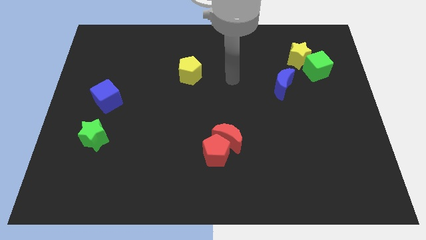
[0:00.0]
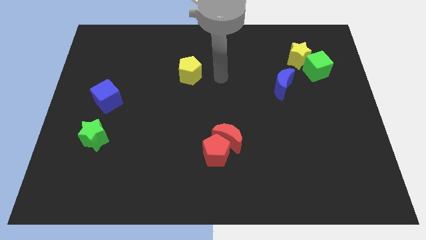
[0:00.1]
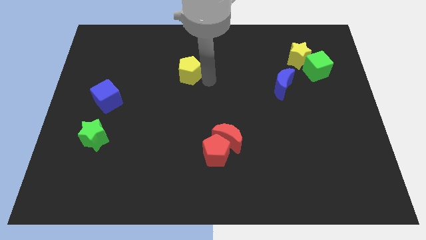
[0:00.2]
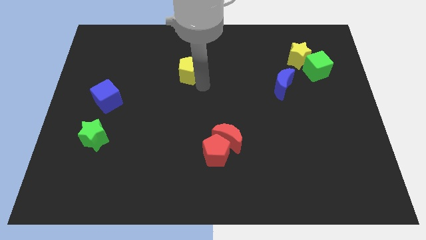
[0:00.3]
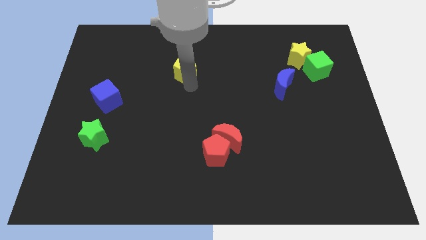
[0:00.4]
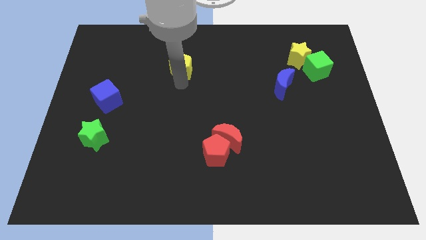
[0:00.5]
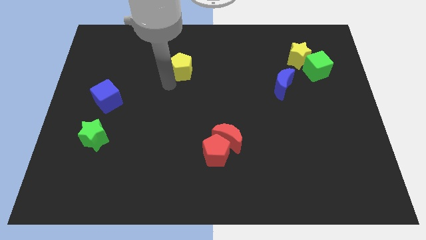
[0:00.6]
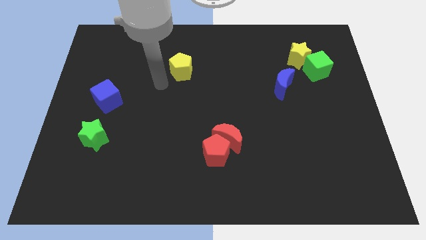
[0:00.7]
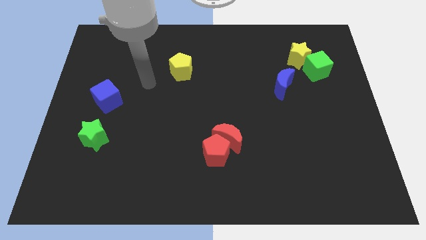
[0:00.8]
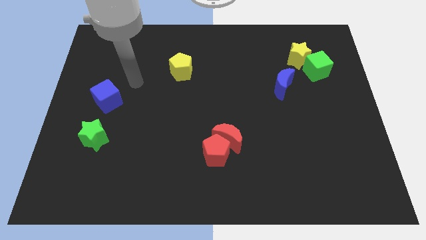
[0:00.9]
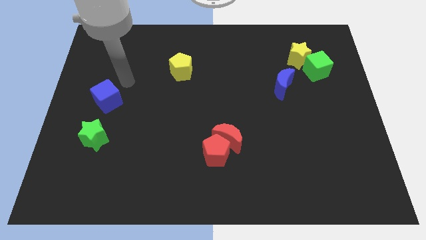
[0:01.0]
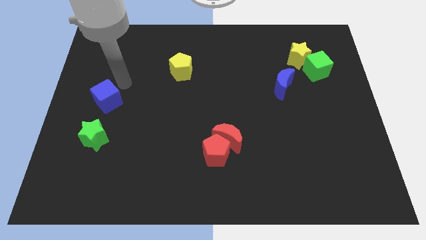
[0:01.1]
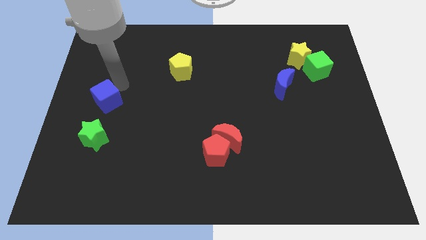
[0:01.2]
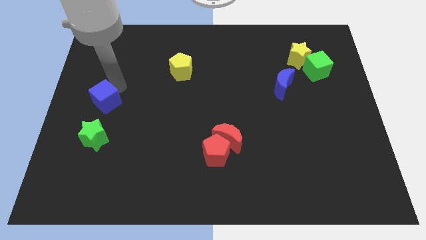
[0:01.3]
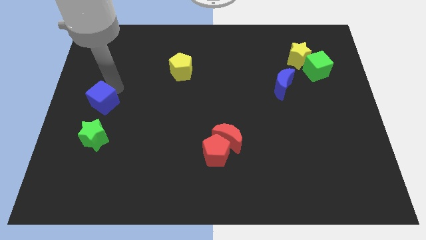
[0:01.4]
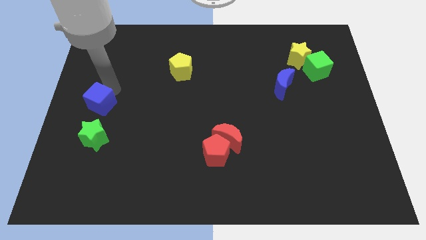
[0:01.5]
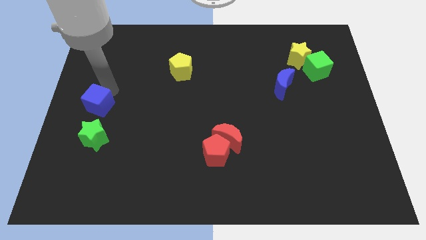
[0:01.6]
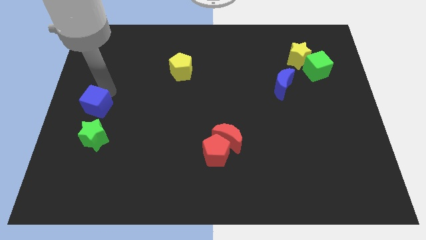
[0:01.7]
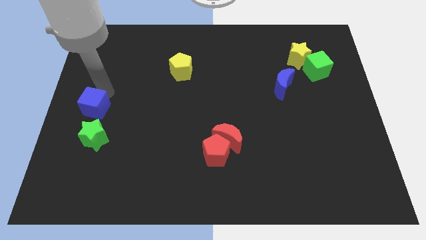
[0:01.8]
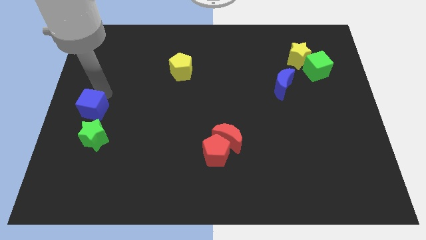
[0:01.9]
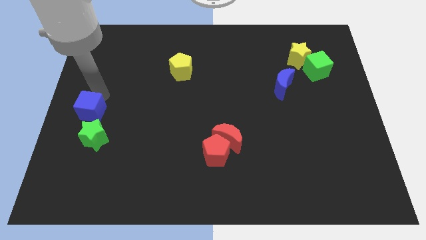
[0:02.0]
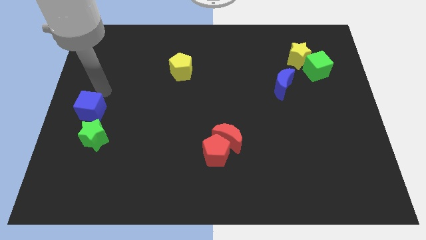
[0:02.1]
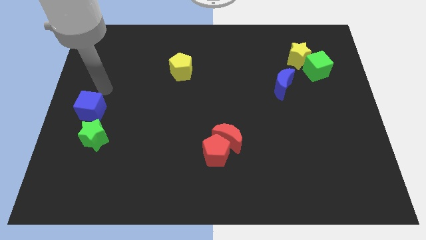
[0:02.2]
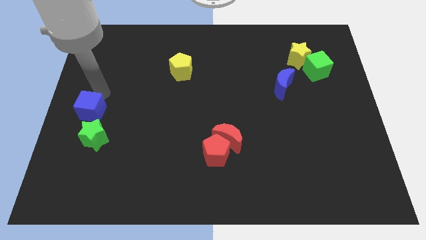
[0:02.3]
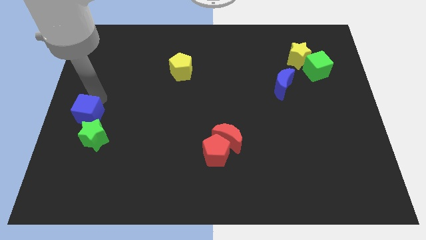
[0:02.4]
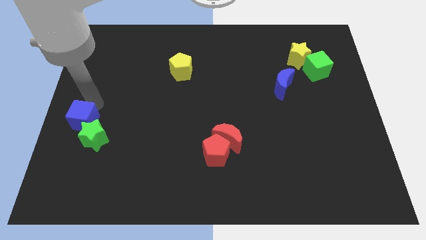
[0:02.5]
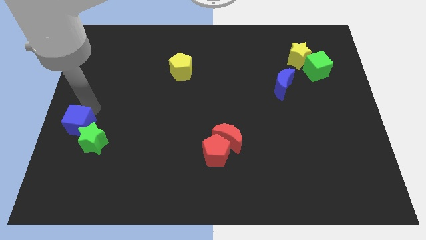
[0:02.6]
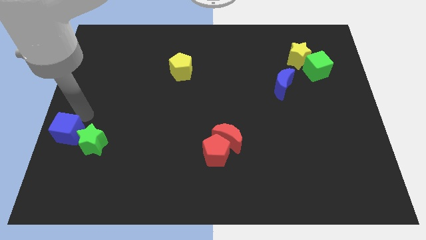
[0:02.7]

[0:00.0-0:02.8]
push the blue cube down somewhat

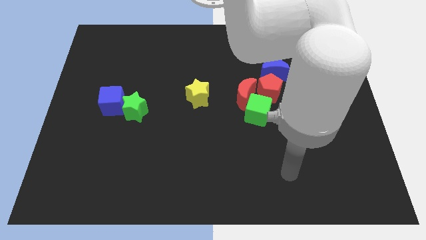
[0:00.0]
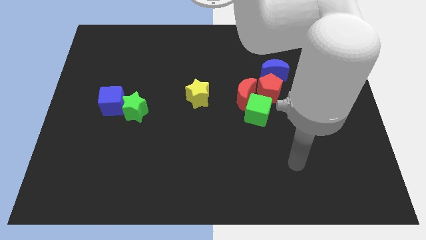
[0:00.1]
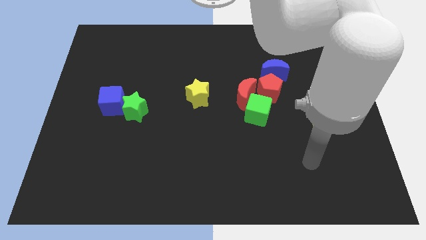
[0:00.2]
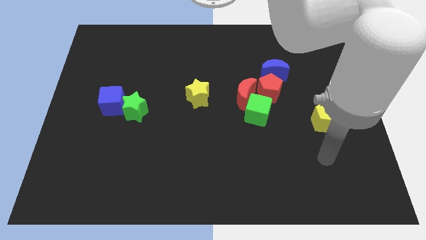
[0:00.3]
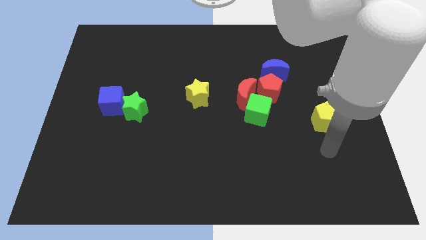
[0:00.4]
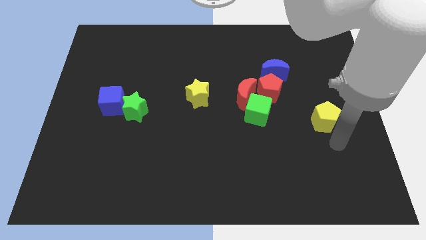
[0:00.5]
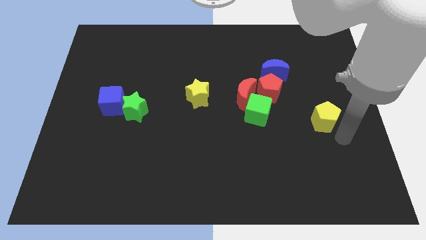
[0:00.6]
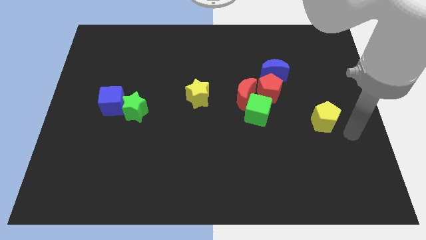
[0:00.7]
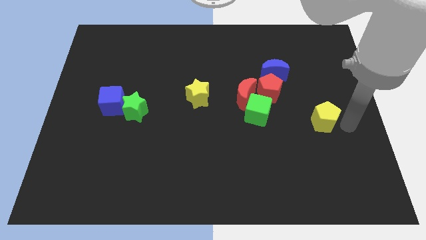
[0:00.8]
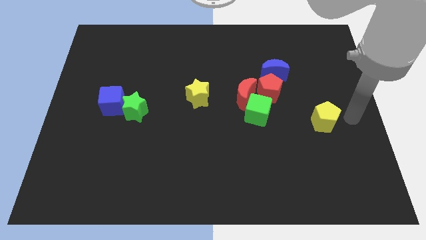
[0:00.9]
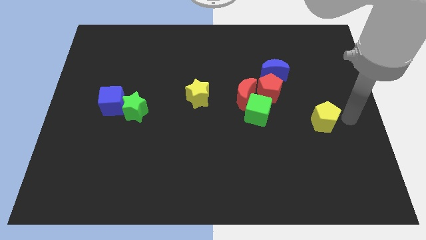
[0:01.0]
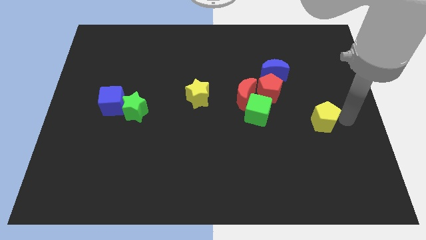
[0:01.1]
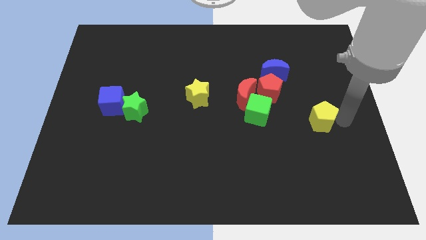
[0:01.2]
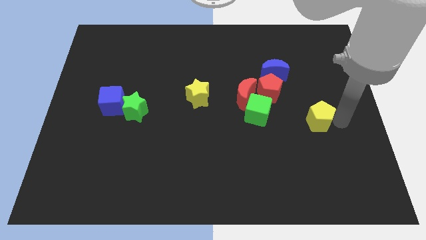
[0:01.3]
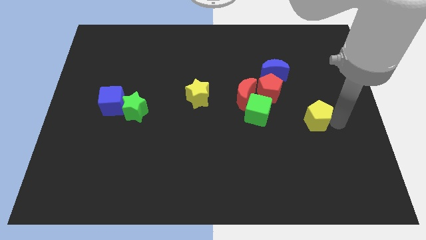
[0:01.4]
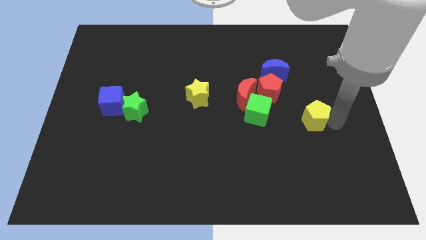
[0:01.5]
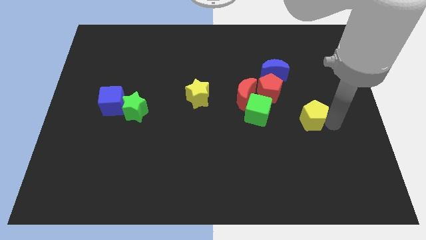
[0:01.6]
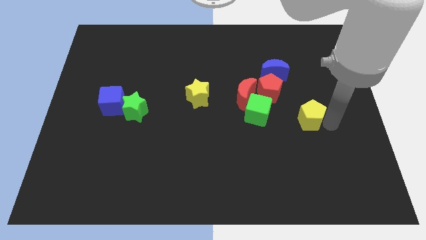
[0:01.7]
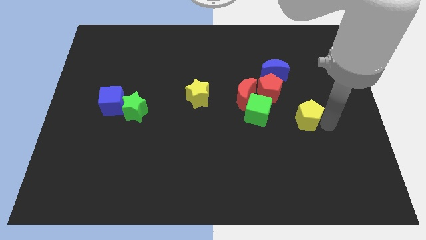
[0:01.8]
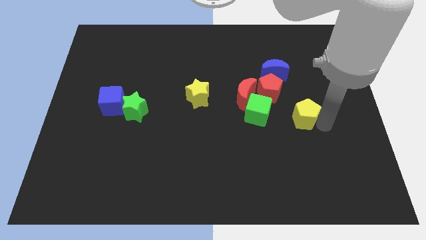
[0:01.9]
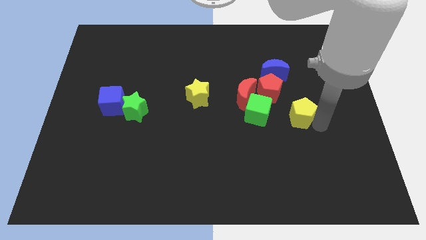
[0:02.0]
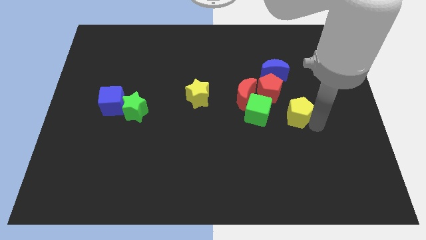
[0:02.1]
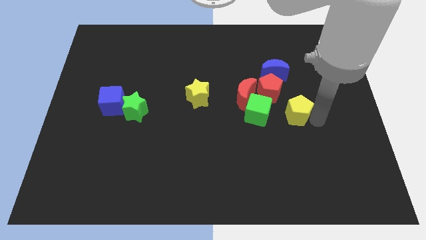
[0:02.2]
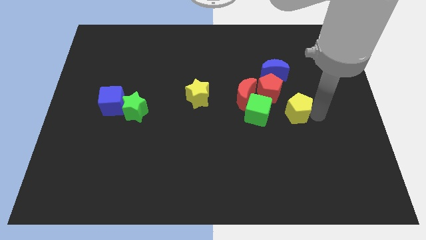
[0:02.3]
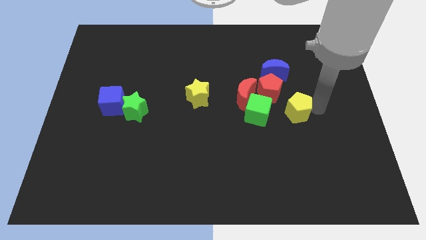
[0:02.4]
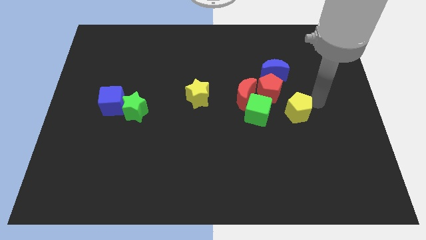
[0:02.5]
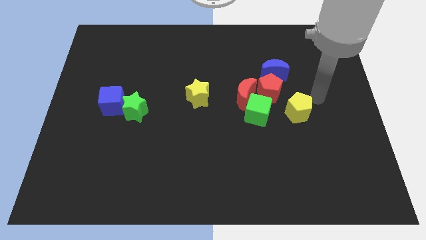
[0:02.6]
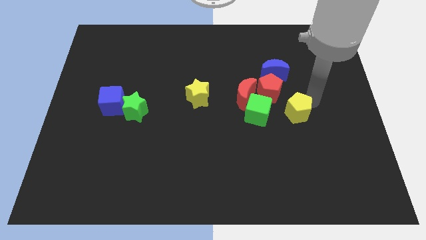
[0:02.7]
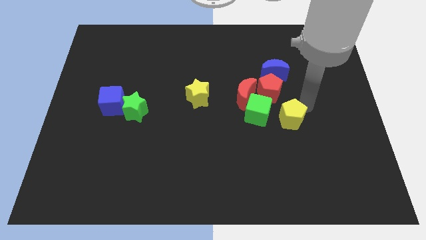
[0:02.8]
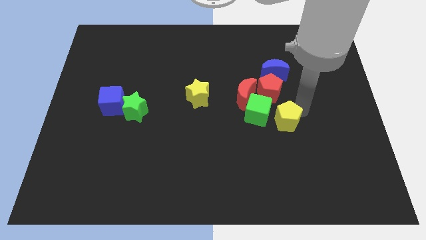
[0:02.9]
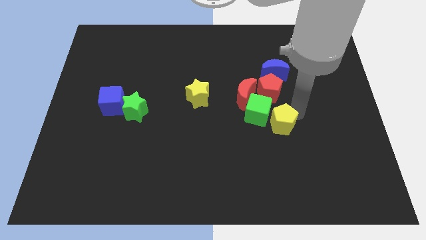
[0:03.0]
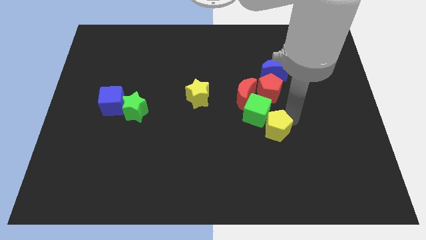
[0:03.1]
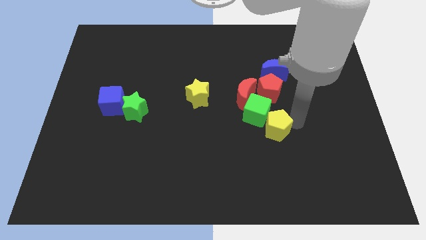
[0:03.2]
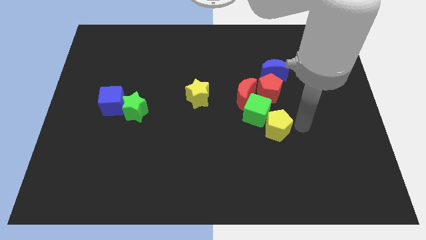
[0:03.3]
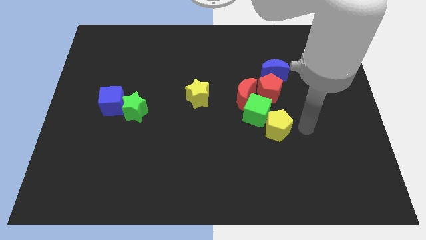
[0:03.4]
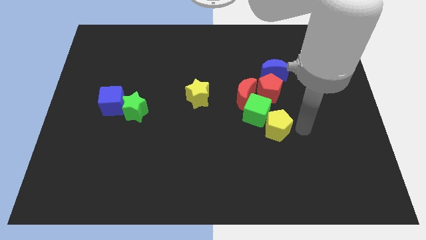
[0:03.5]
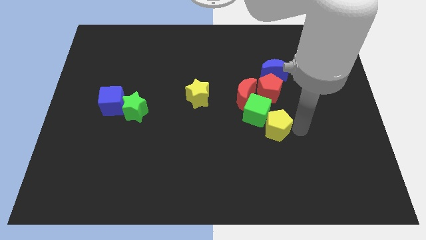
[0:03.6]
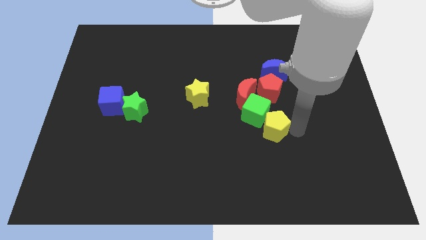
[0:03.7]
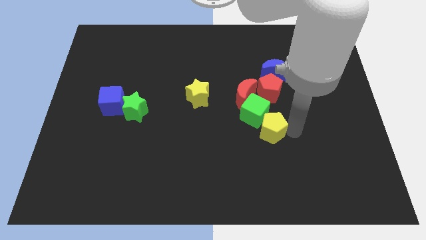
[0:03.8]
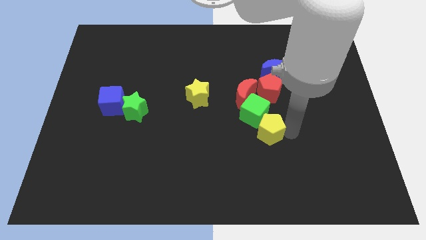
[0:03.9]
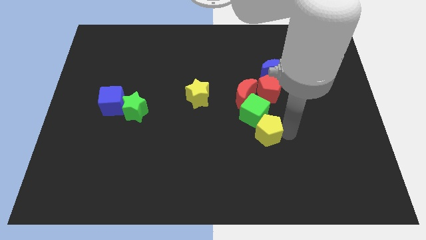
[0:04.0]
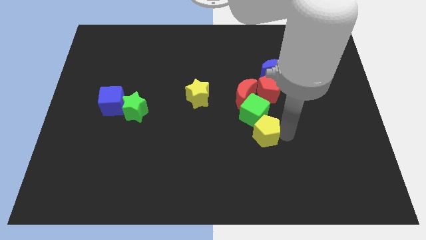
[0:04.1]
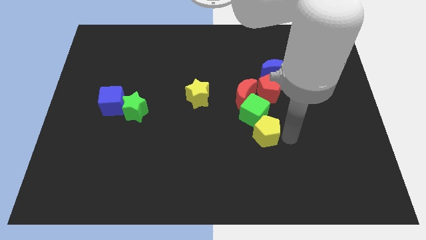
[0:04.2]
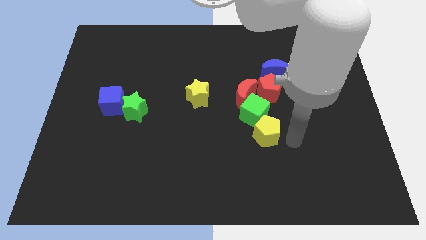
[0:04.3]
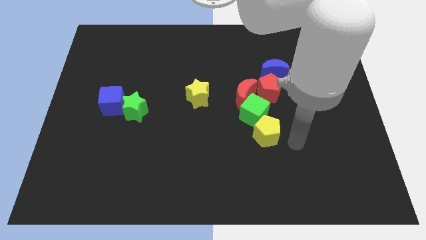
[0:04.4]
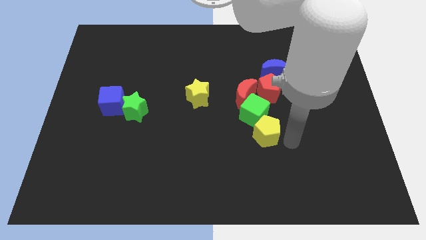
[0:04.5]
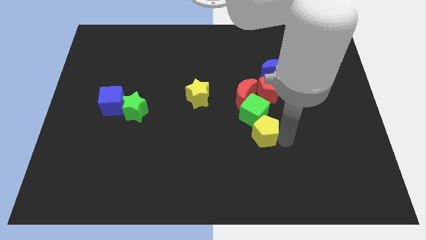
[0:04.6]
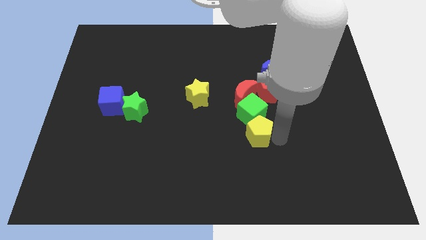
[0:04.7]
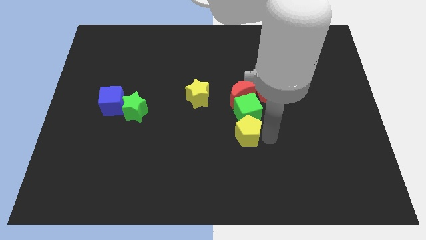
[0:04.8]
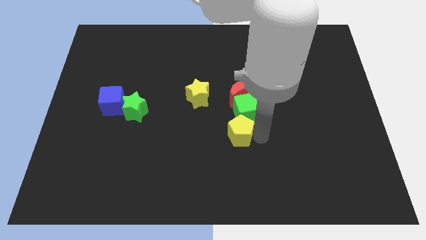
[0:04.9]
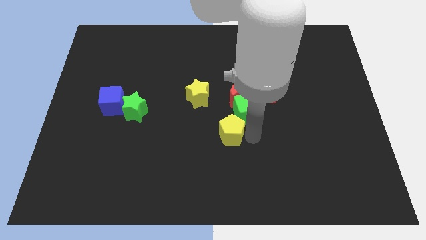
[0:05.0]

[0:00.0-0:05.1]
push the yellow pentagon left

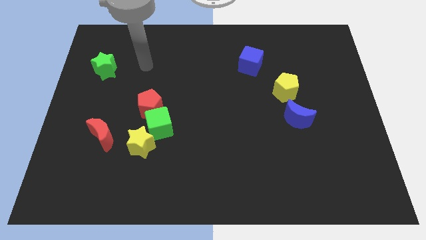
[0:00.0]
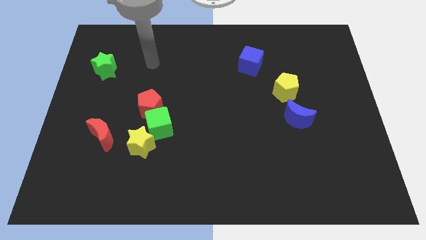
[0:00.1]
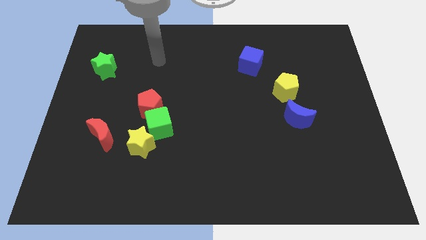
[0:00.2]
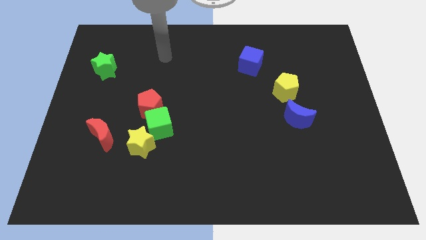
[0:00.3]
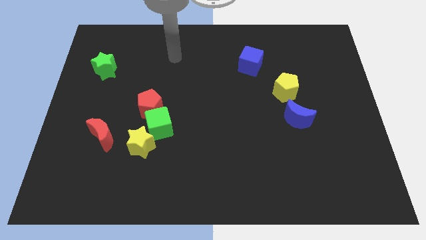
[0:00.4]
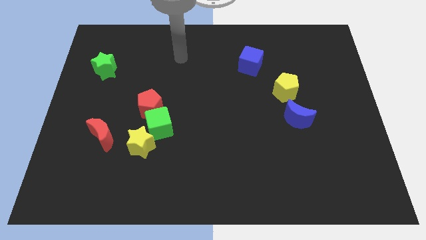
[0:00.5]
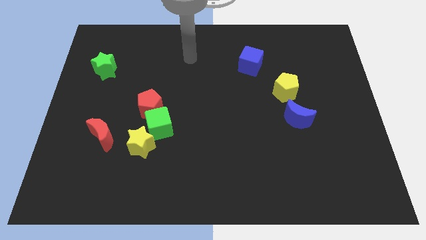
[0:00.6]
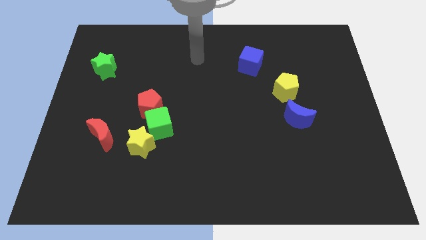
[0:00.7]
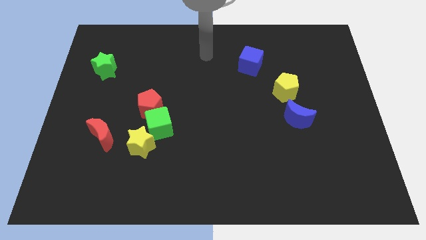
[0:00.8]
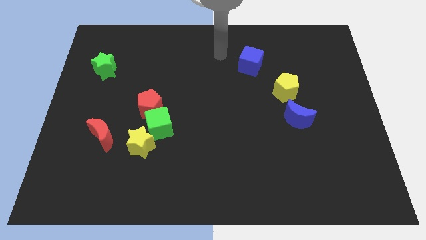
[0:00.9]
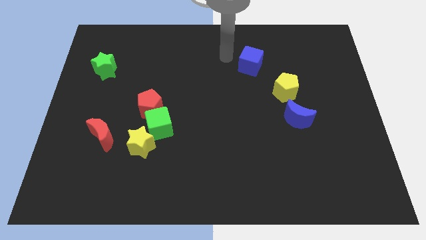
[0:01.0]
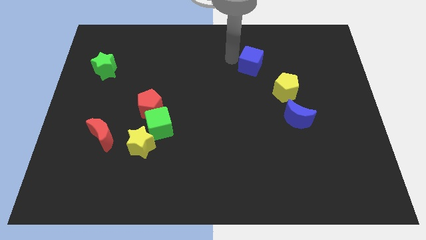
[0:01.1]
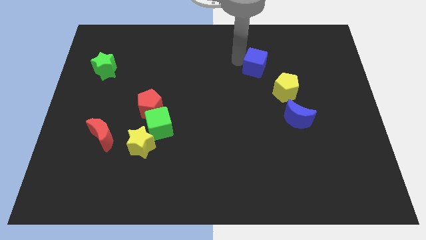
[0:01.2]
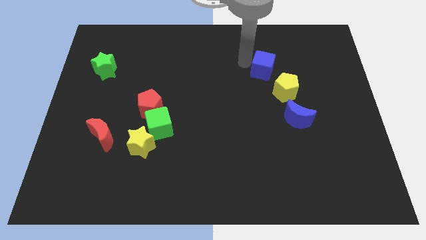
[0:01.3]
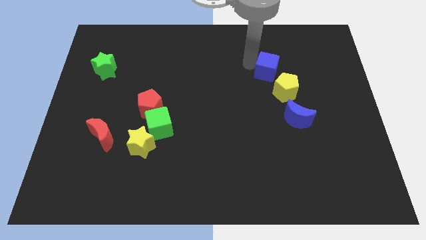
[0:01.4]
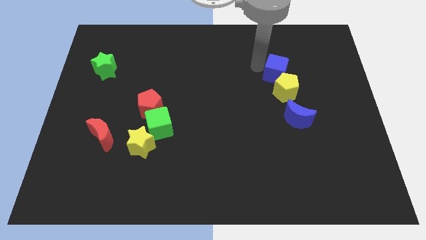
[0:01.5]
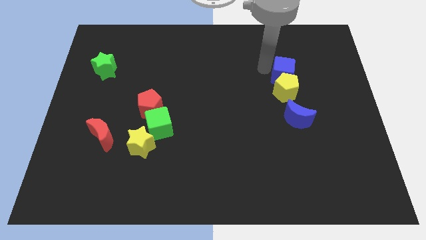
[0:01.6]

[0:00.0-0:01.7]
move the blue cube a little bit diagonally down and to the right
